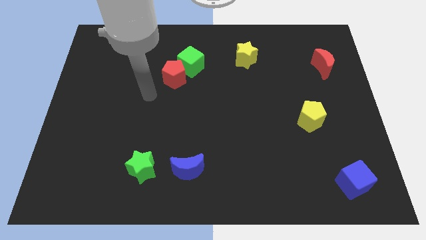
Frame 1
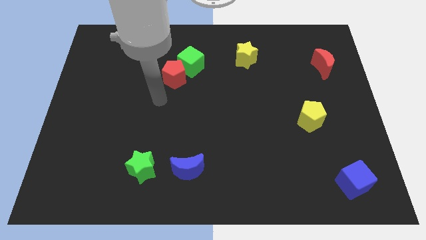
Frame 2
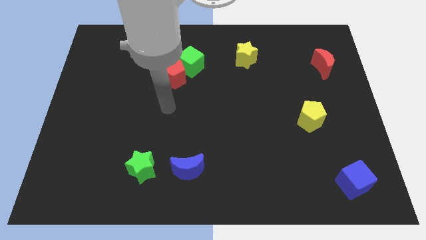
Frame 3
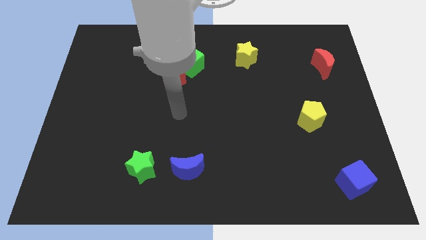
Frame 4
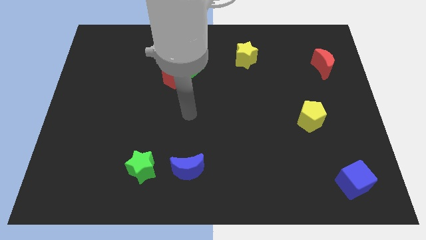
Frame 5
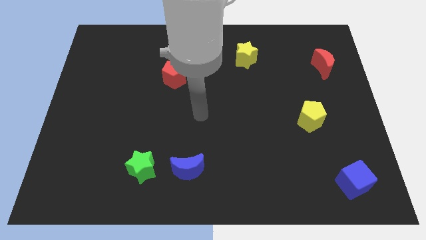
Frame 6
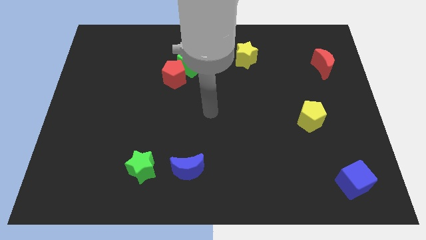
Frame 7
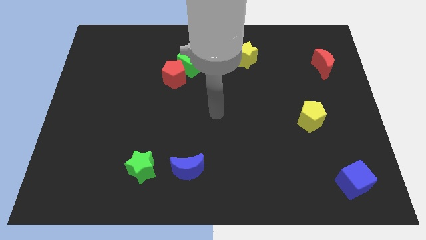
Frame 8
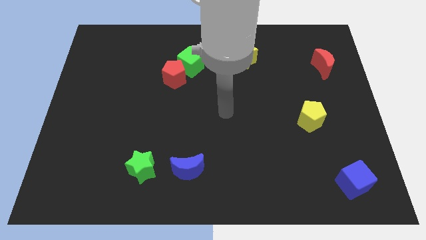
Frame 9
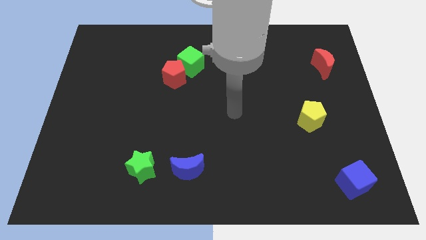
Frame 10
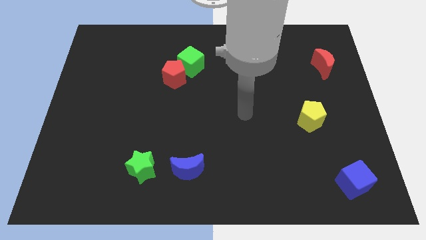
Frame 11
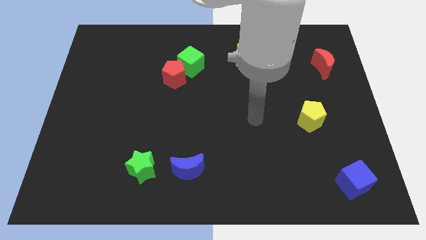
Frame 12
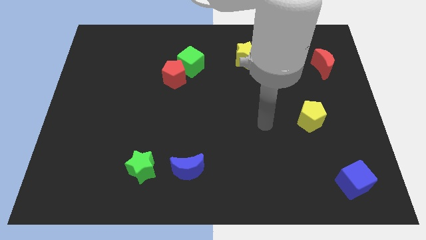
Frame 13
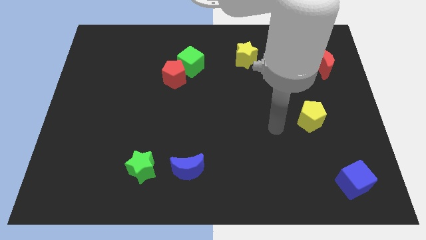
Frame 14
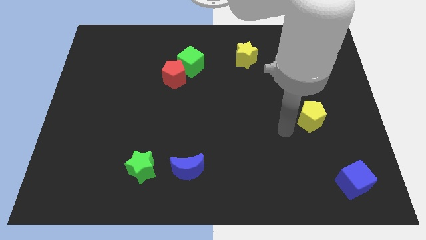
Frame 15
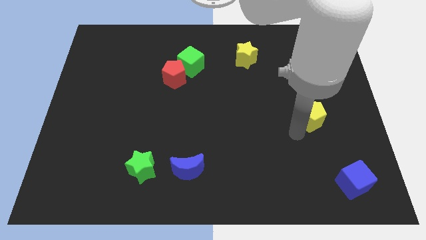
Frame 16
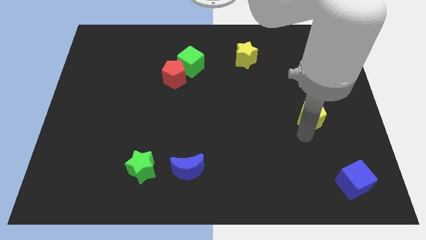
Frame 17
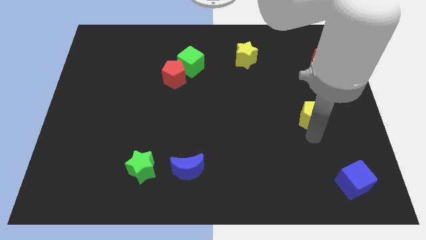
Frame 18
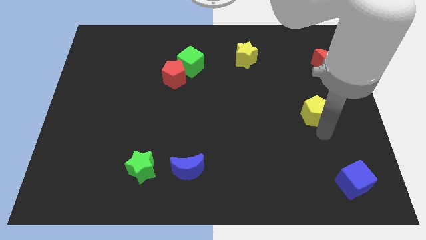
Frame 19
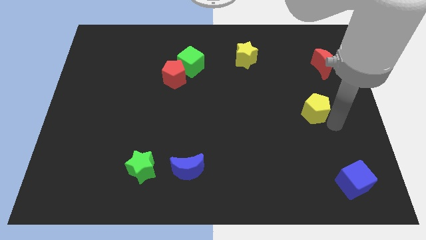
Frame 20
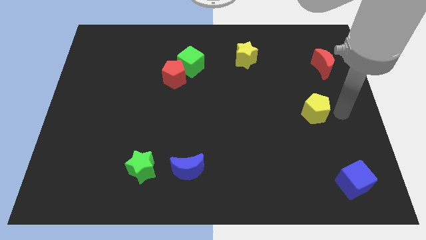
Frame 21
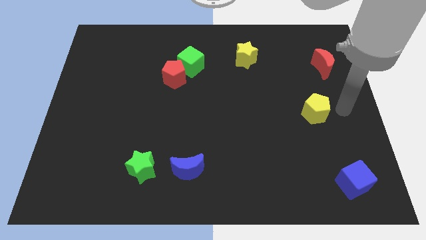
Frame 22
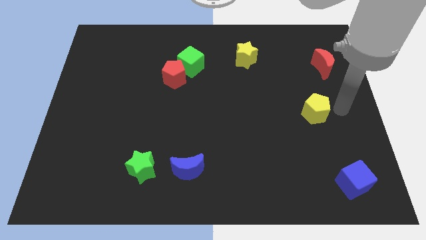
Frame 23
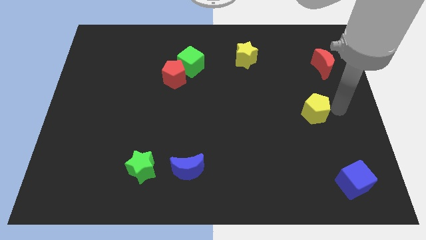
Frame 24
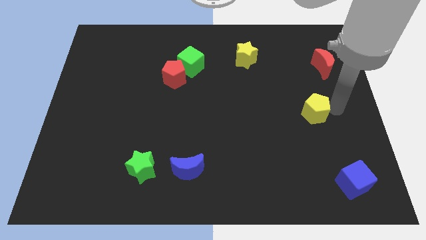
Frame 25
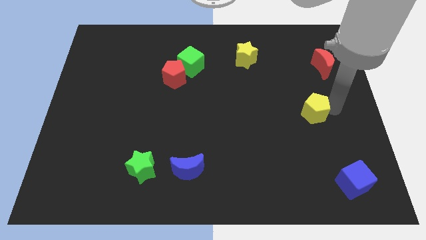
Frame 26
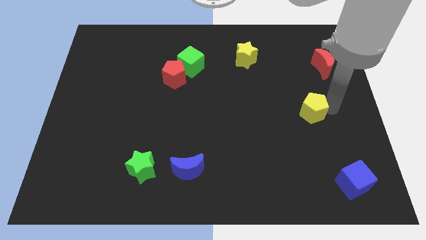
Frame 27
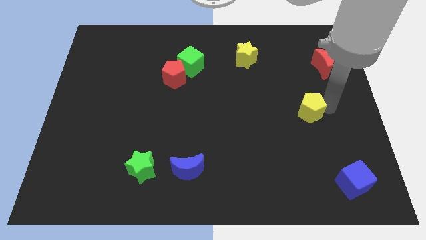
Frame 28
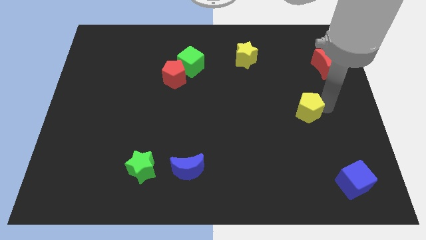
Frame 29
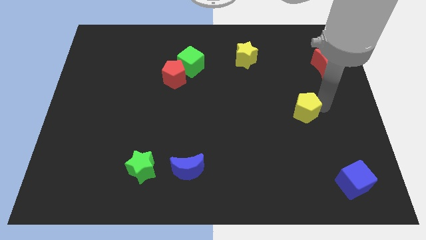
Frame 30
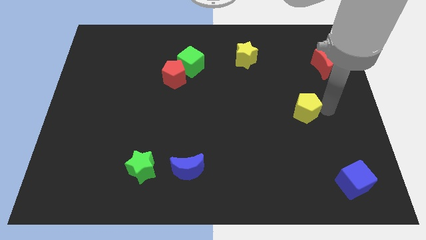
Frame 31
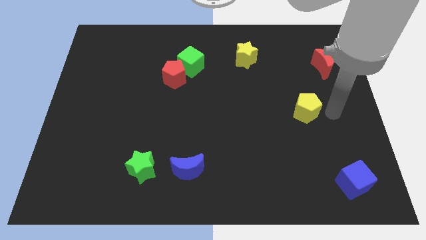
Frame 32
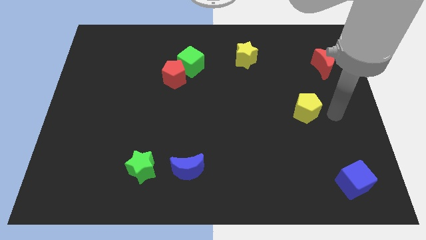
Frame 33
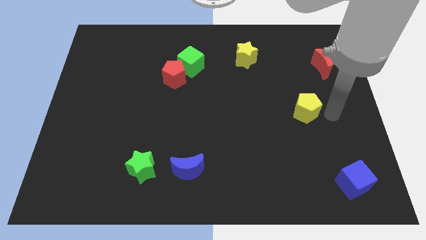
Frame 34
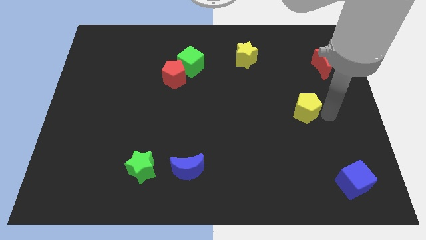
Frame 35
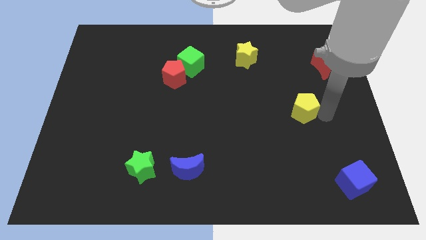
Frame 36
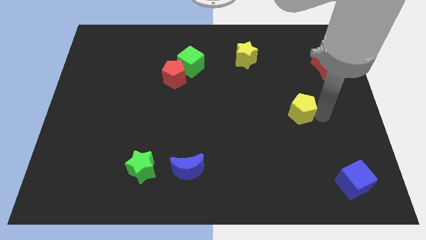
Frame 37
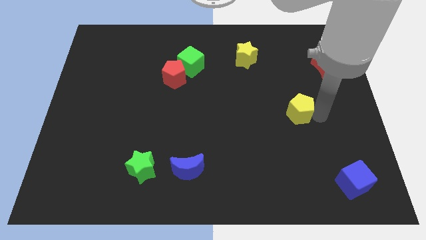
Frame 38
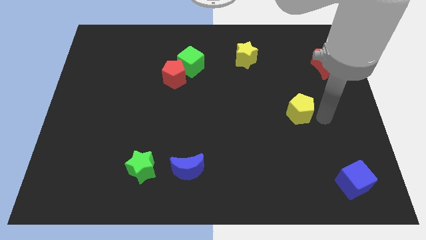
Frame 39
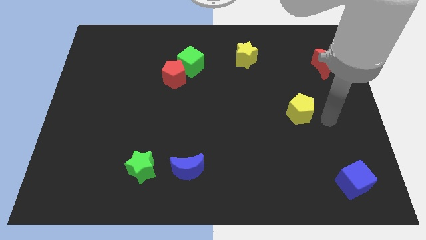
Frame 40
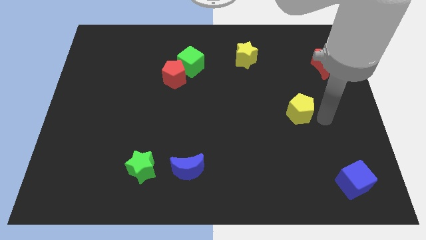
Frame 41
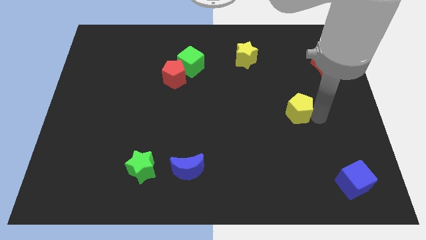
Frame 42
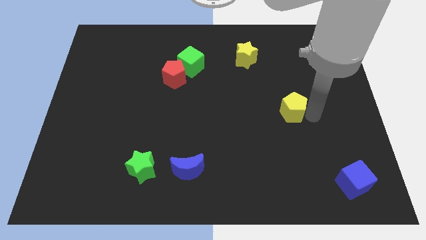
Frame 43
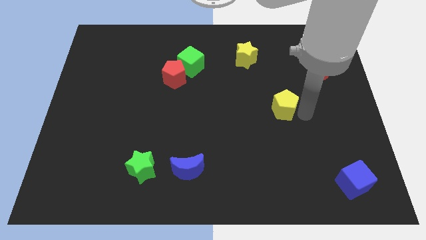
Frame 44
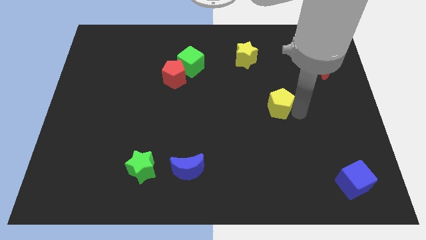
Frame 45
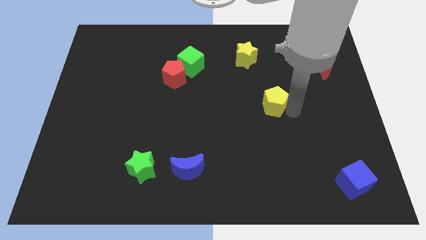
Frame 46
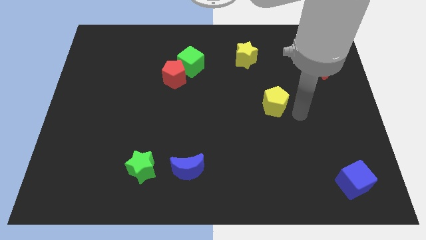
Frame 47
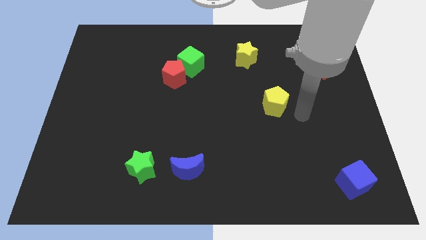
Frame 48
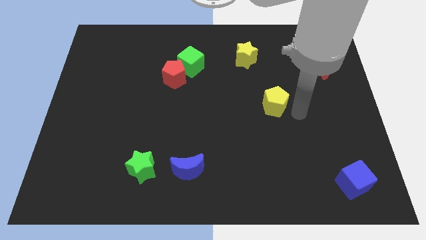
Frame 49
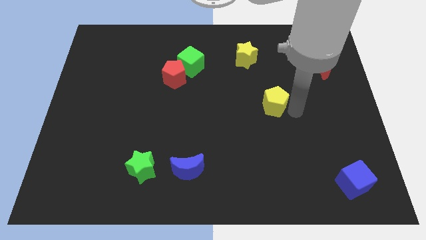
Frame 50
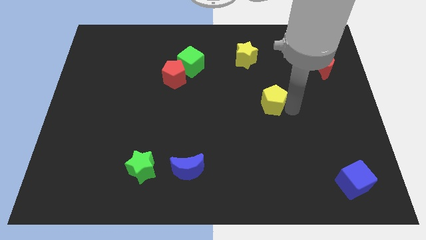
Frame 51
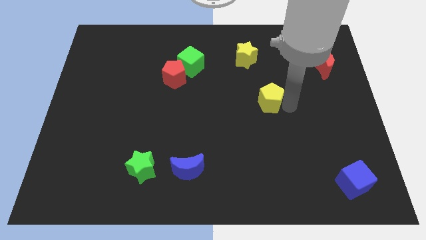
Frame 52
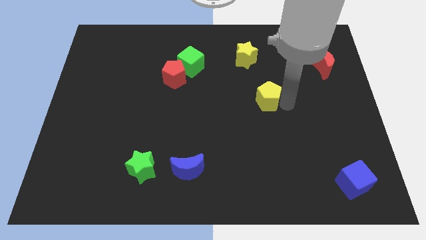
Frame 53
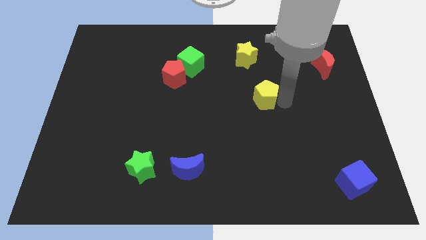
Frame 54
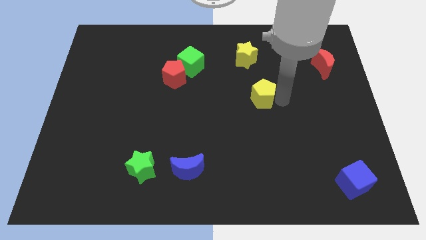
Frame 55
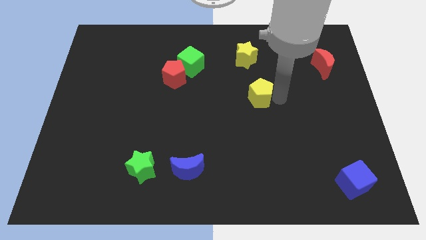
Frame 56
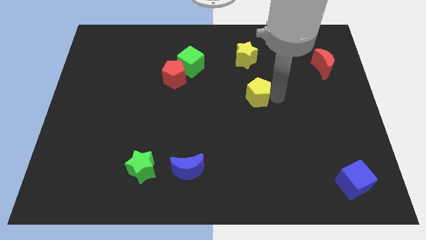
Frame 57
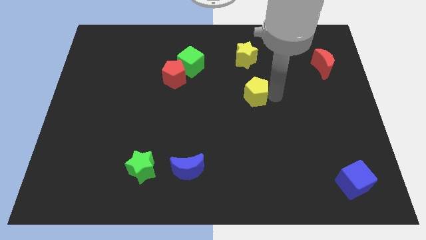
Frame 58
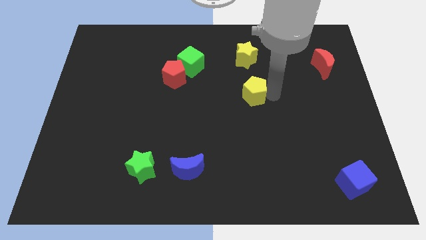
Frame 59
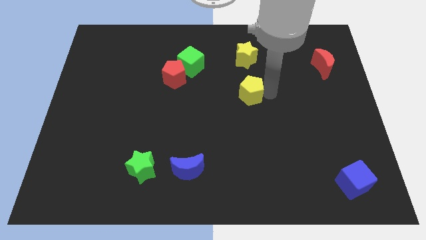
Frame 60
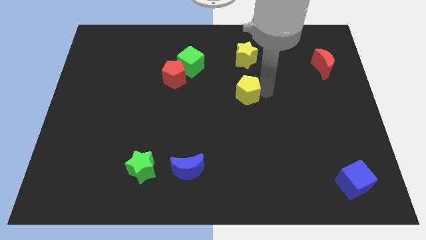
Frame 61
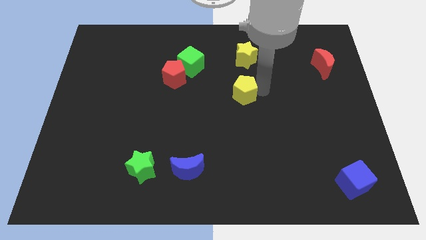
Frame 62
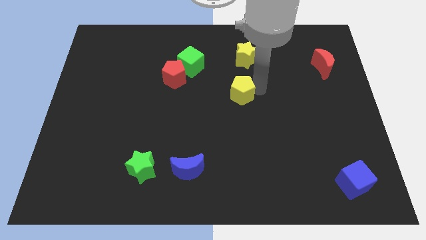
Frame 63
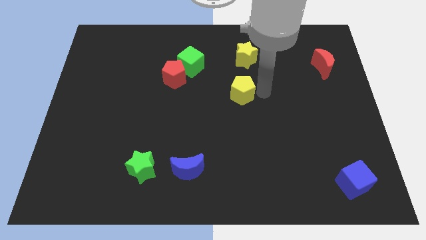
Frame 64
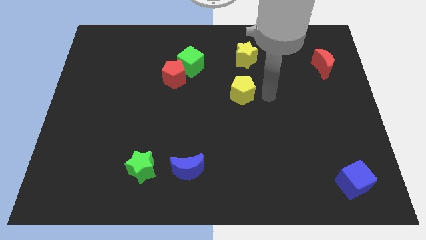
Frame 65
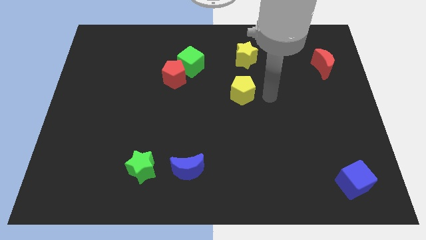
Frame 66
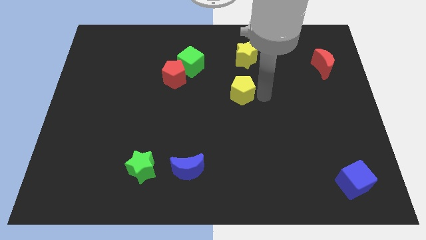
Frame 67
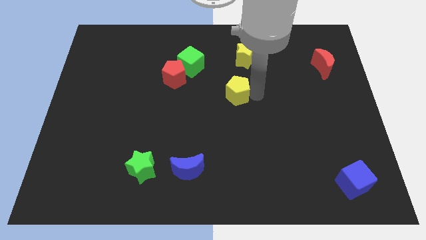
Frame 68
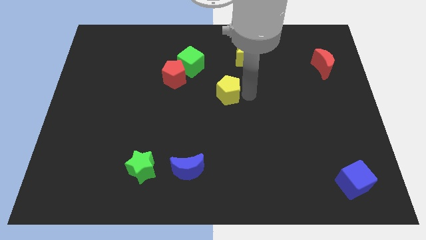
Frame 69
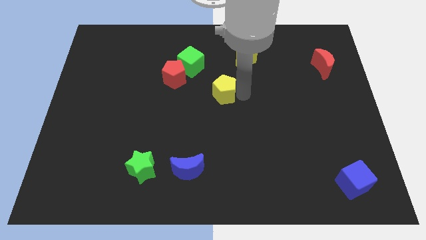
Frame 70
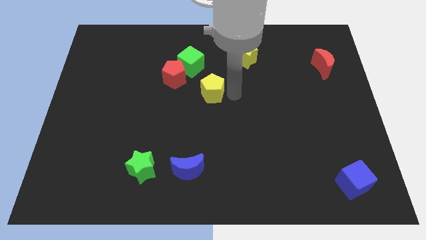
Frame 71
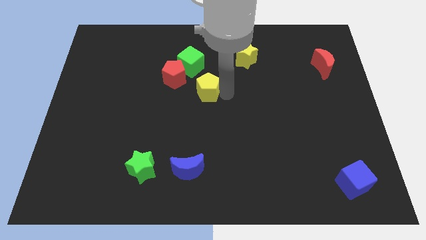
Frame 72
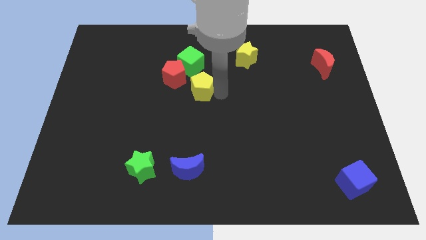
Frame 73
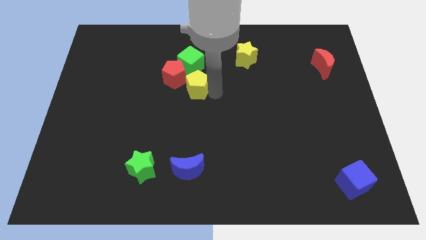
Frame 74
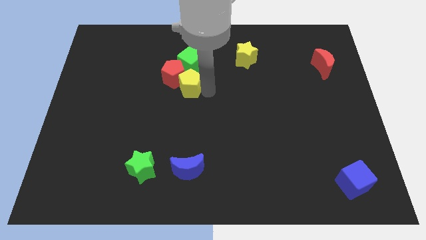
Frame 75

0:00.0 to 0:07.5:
push the yellow pentagon towards the red pentagon
